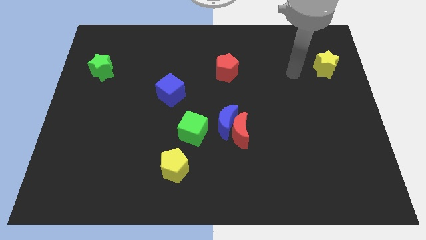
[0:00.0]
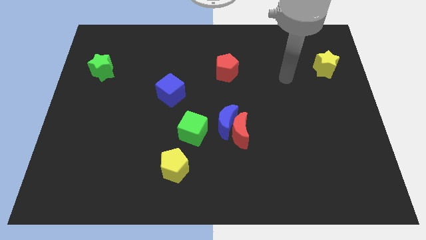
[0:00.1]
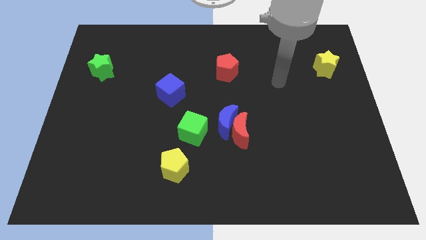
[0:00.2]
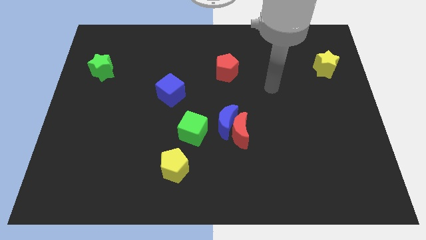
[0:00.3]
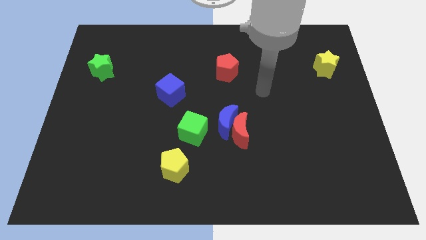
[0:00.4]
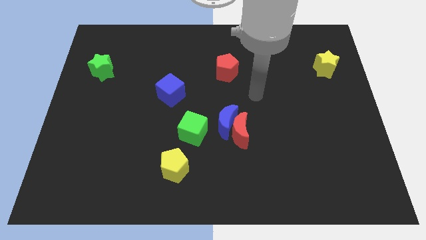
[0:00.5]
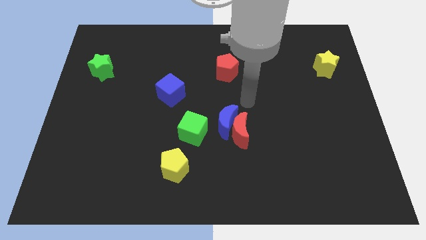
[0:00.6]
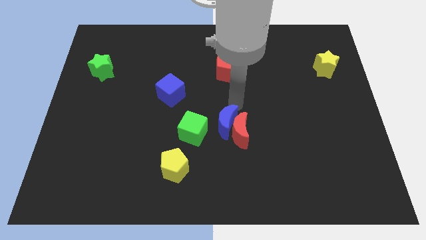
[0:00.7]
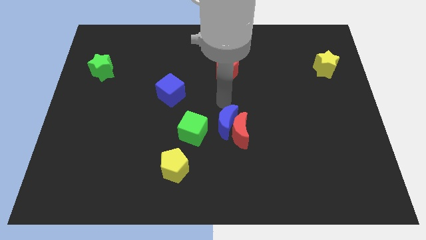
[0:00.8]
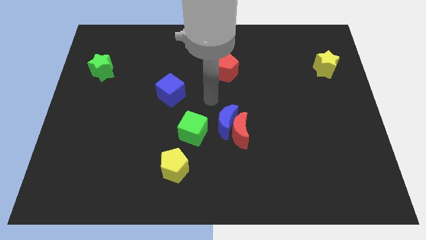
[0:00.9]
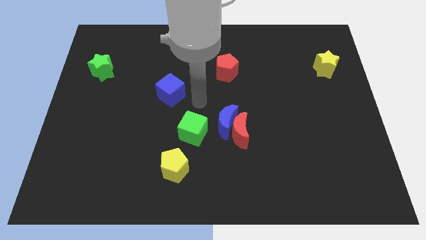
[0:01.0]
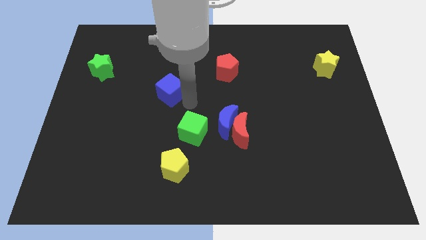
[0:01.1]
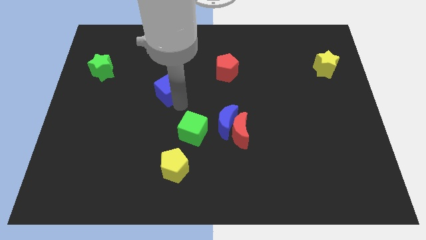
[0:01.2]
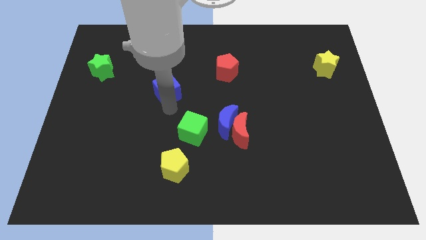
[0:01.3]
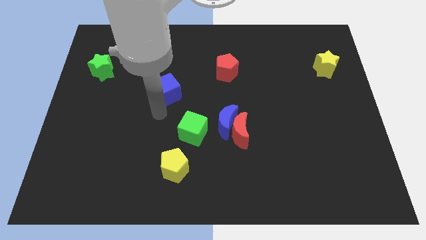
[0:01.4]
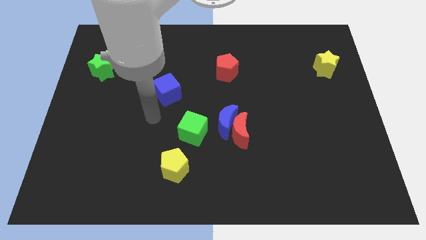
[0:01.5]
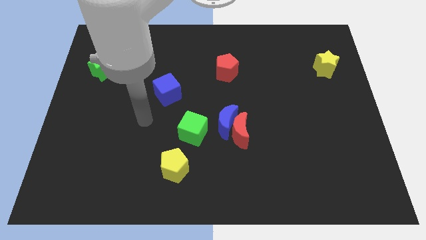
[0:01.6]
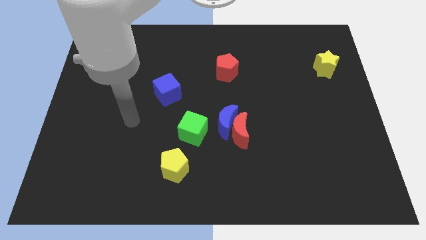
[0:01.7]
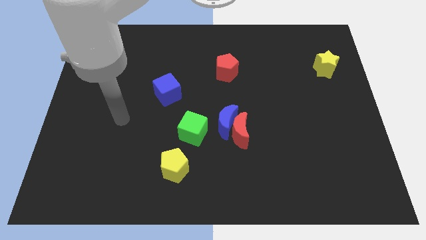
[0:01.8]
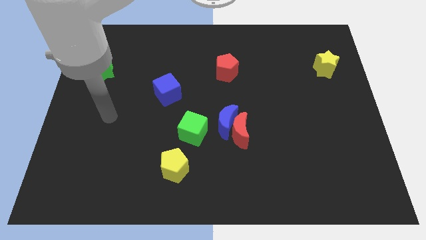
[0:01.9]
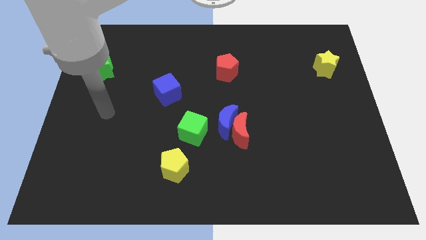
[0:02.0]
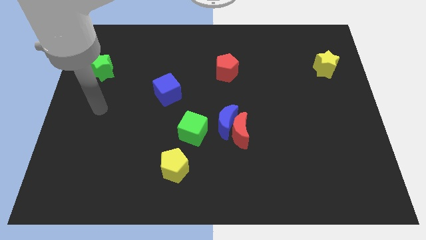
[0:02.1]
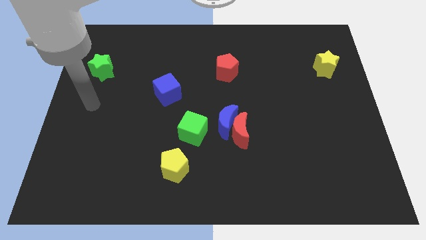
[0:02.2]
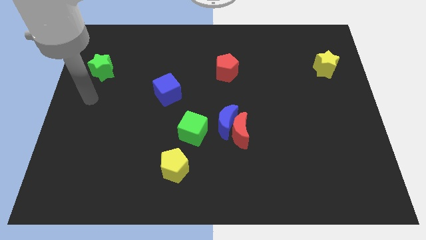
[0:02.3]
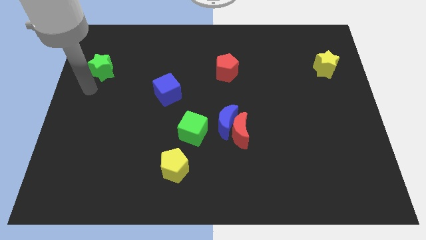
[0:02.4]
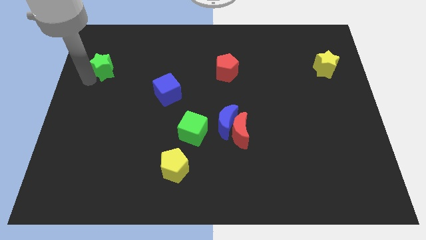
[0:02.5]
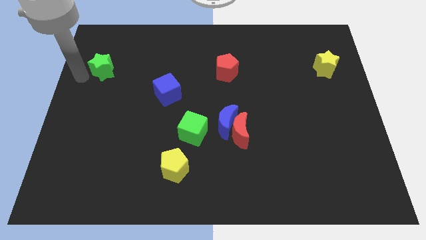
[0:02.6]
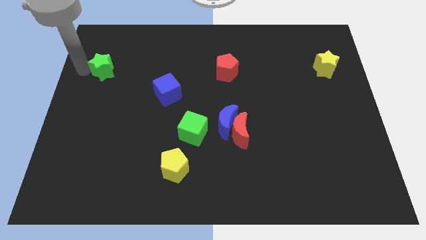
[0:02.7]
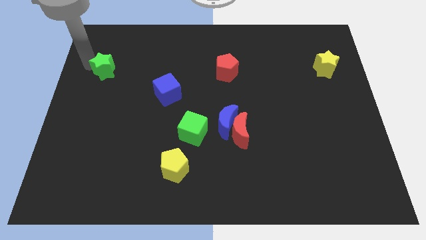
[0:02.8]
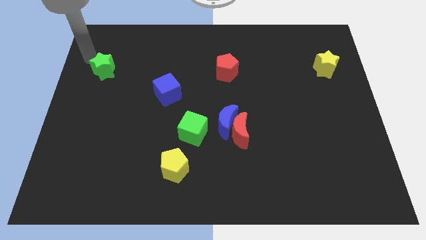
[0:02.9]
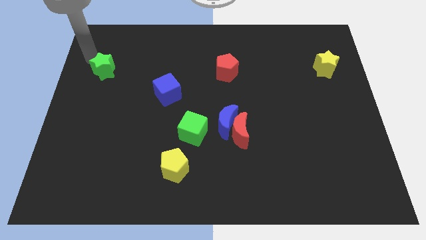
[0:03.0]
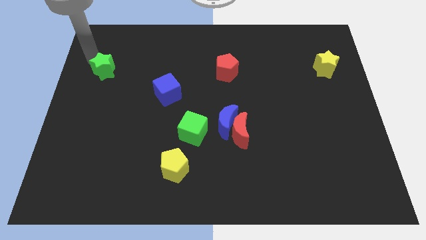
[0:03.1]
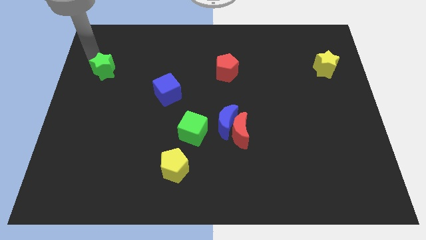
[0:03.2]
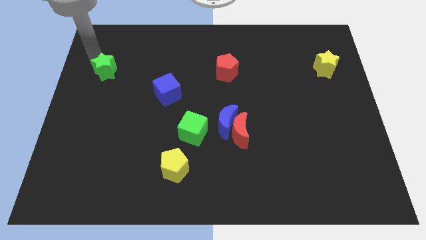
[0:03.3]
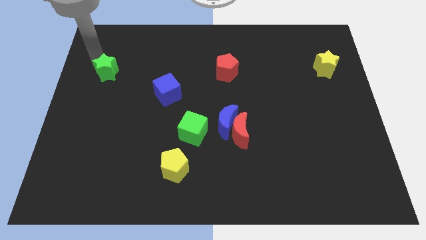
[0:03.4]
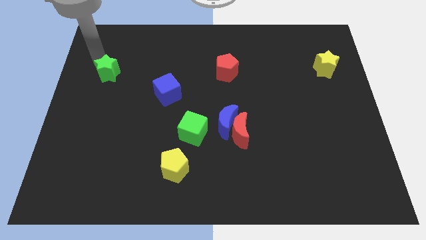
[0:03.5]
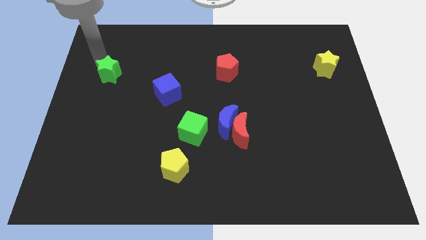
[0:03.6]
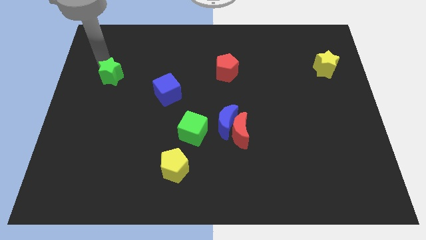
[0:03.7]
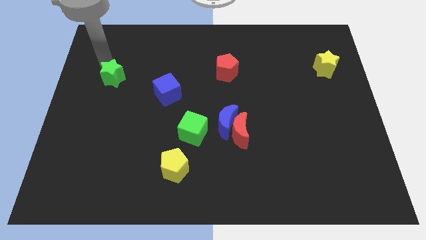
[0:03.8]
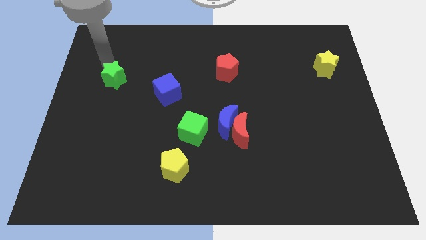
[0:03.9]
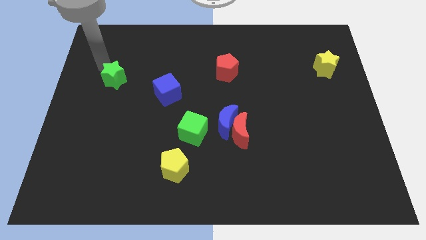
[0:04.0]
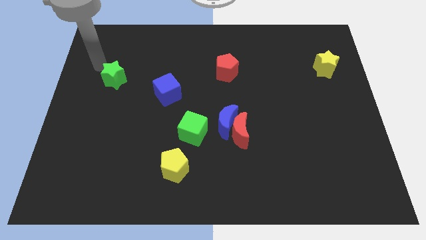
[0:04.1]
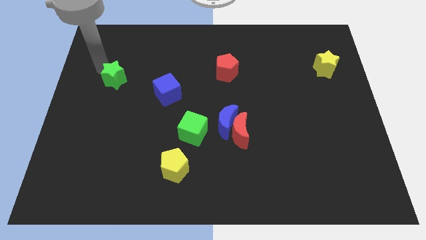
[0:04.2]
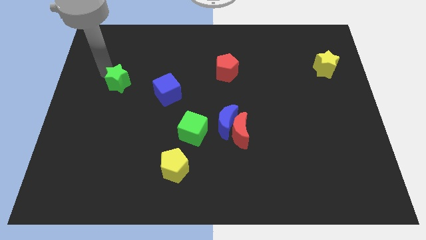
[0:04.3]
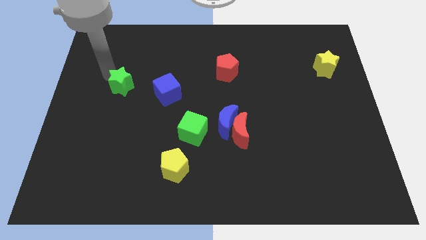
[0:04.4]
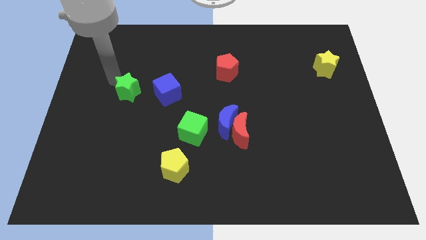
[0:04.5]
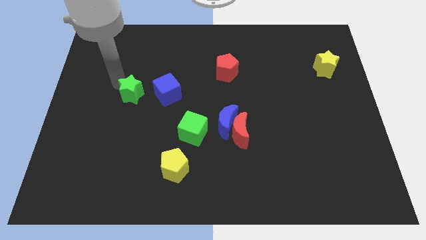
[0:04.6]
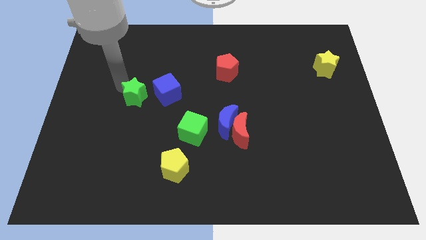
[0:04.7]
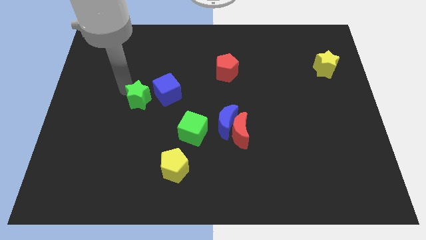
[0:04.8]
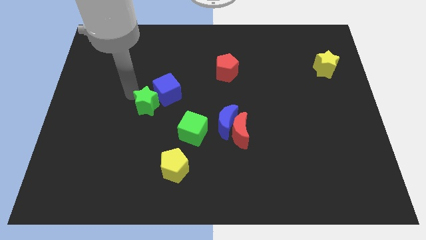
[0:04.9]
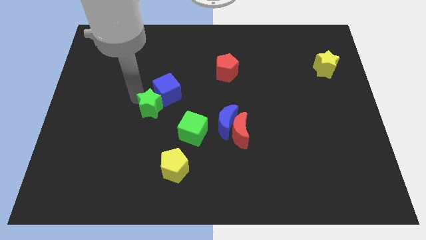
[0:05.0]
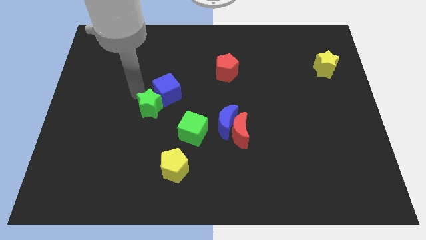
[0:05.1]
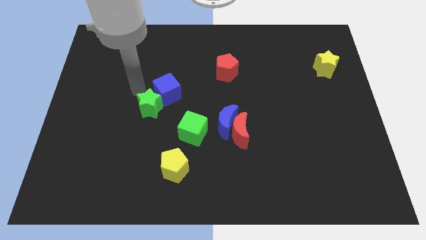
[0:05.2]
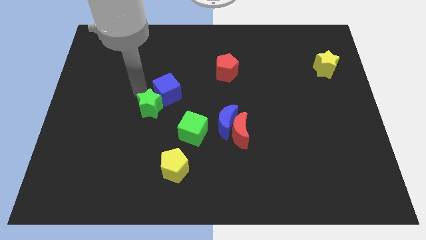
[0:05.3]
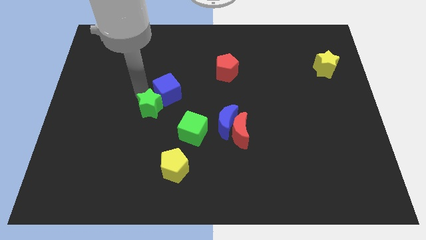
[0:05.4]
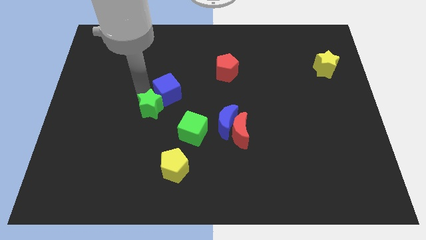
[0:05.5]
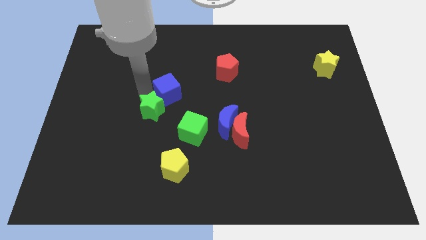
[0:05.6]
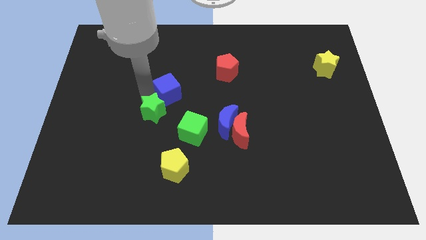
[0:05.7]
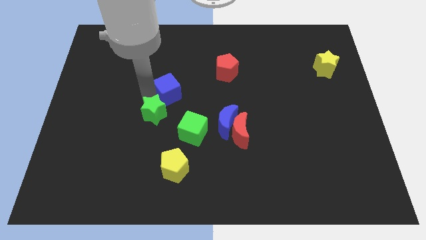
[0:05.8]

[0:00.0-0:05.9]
slide the green star downwards and right

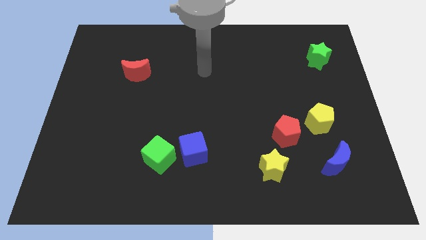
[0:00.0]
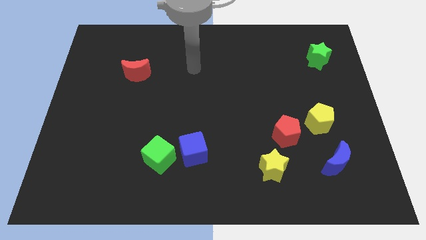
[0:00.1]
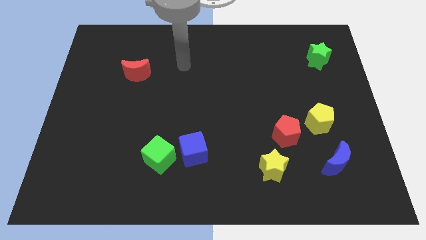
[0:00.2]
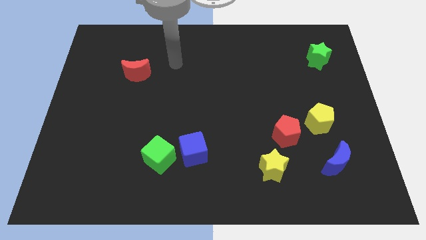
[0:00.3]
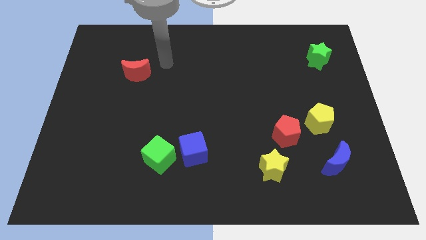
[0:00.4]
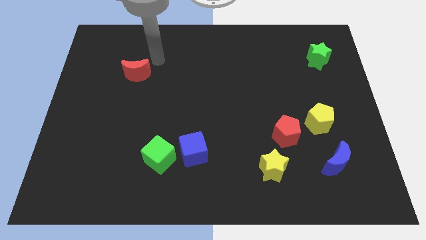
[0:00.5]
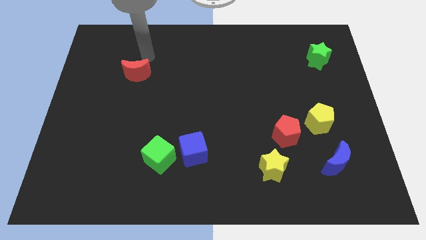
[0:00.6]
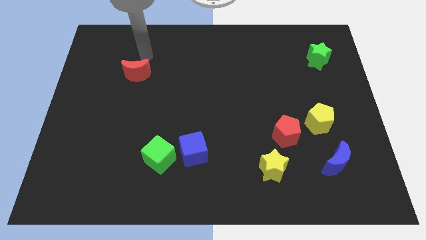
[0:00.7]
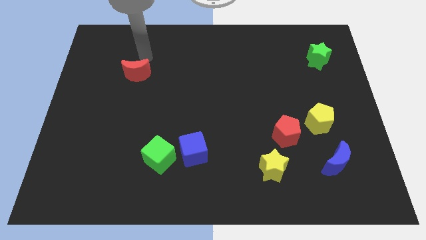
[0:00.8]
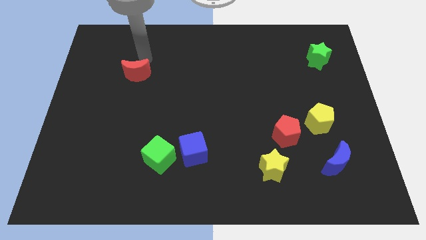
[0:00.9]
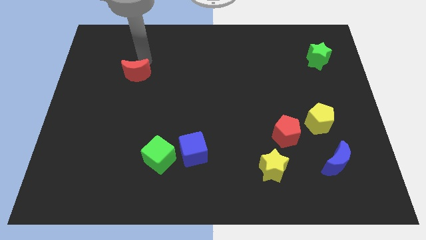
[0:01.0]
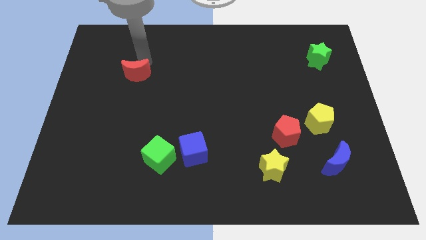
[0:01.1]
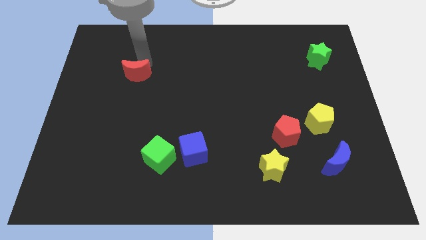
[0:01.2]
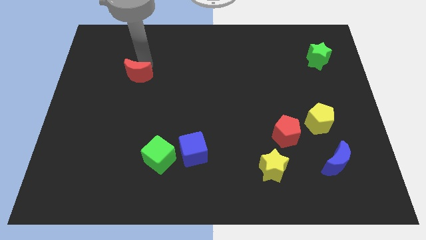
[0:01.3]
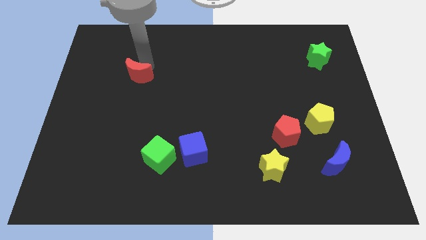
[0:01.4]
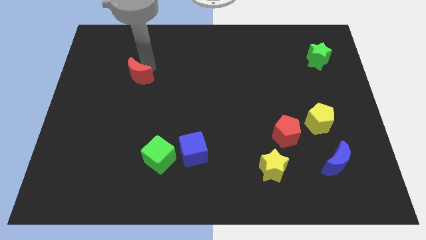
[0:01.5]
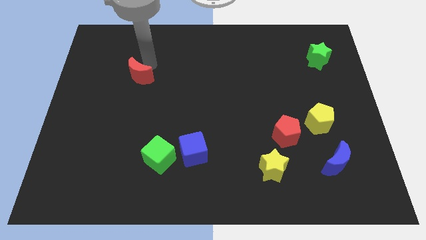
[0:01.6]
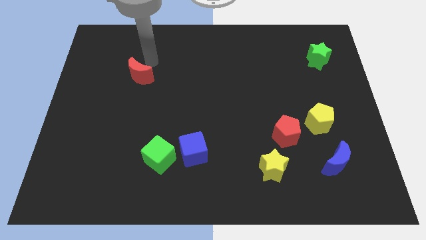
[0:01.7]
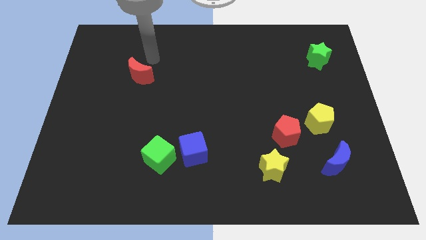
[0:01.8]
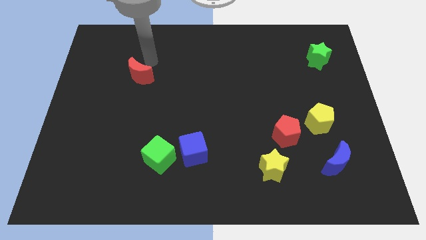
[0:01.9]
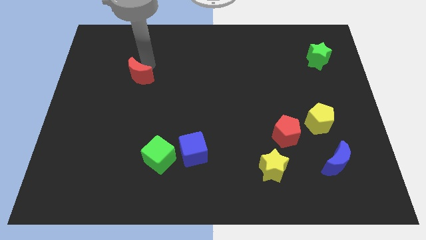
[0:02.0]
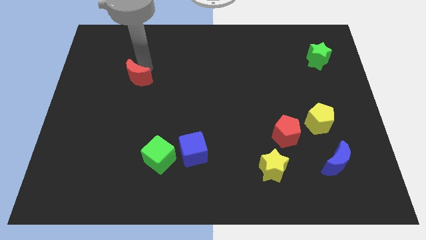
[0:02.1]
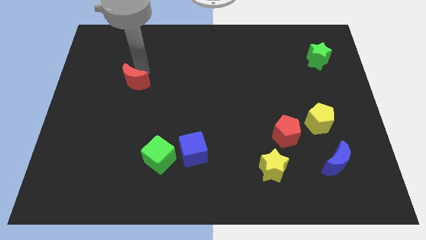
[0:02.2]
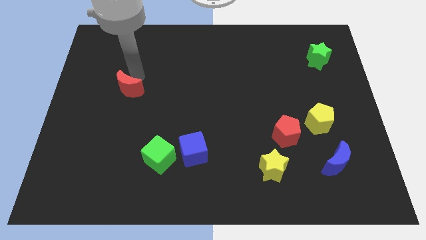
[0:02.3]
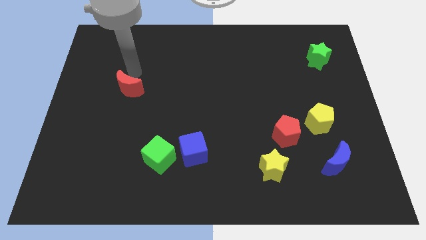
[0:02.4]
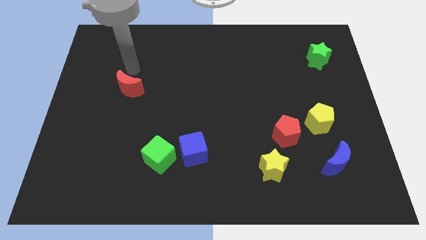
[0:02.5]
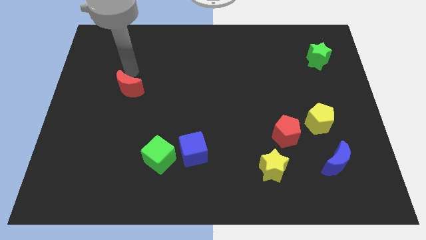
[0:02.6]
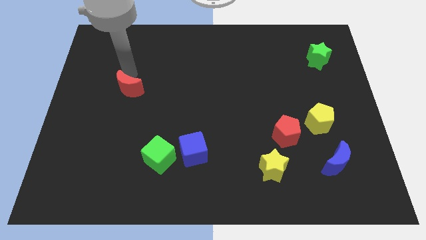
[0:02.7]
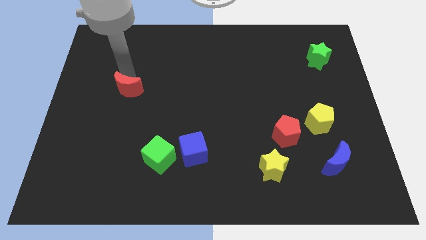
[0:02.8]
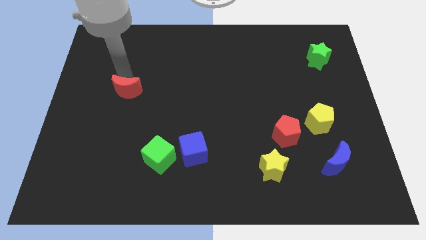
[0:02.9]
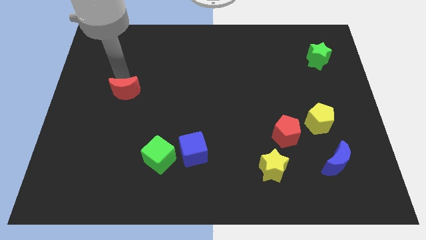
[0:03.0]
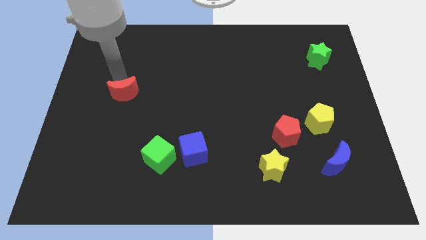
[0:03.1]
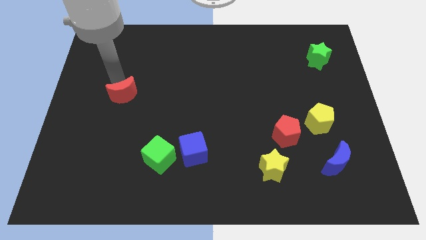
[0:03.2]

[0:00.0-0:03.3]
slightly move the red moon downwards
